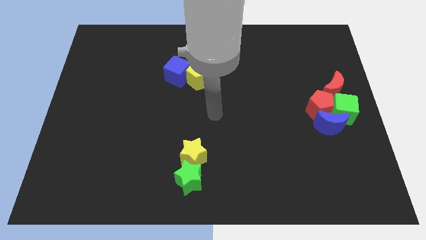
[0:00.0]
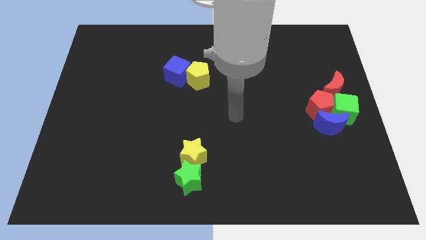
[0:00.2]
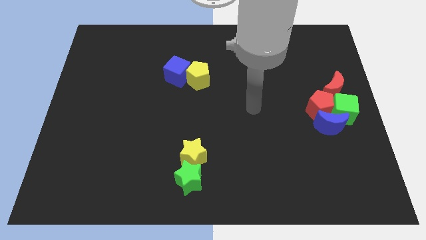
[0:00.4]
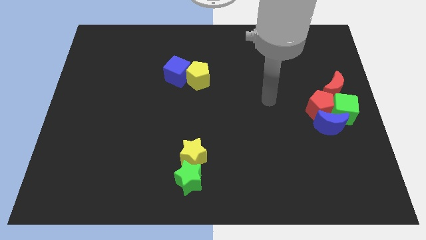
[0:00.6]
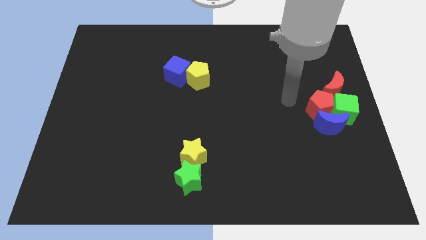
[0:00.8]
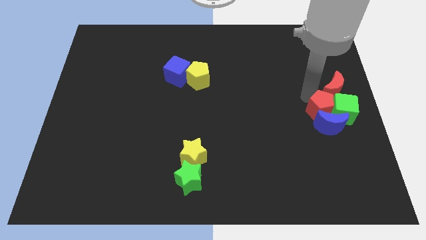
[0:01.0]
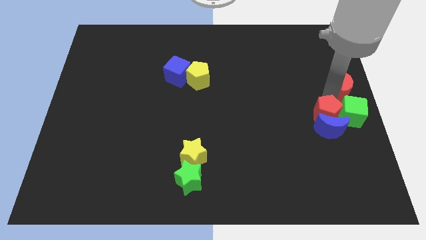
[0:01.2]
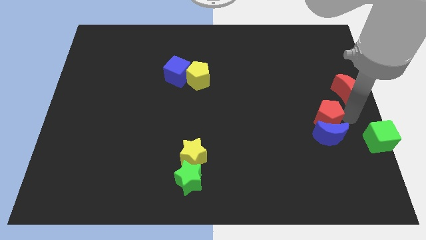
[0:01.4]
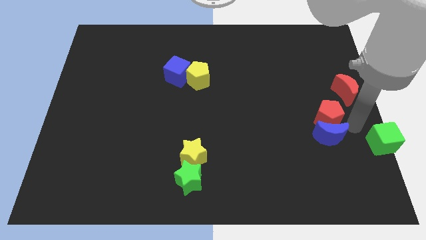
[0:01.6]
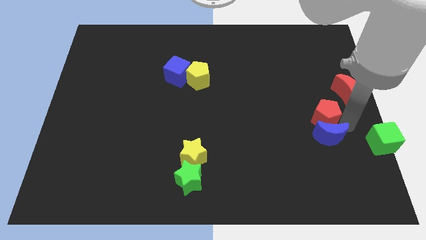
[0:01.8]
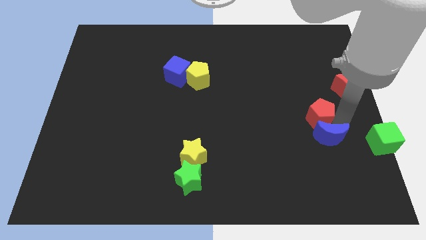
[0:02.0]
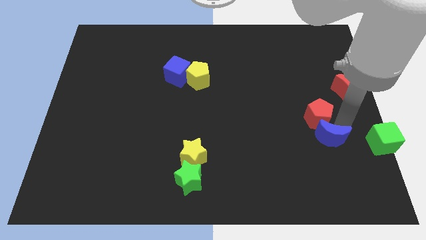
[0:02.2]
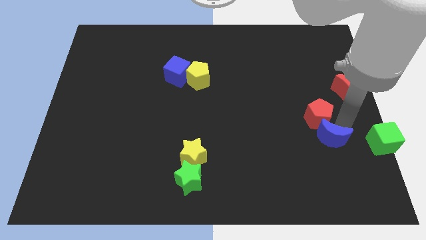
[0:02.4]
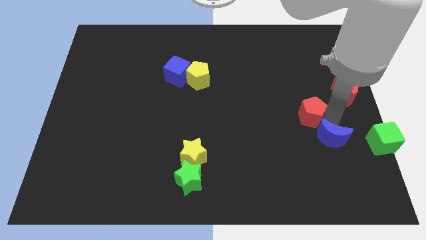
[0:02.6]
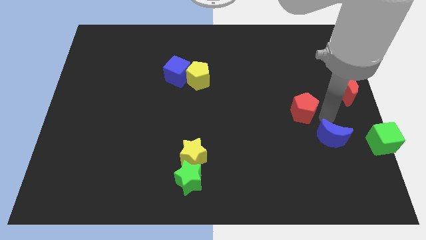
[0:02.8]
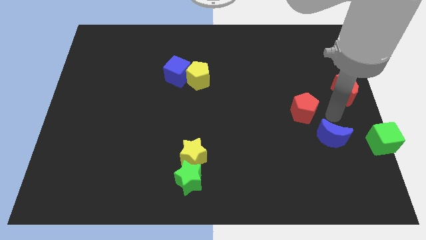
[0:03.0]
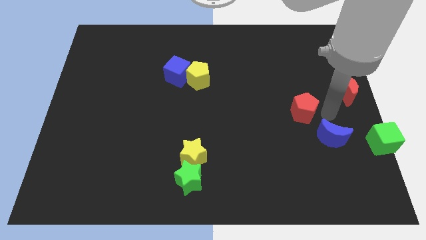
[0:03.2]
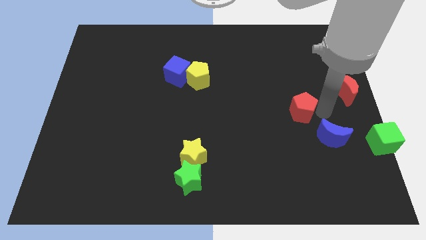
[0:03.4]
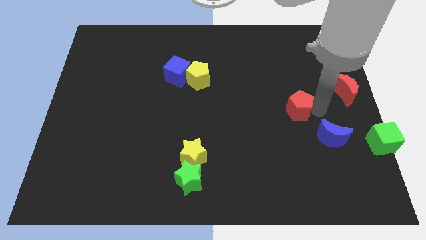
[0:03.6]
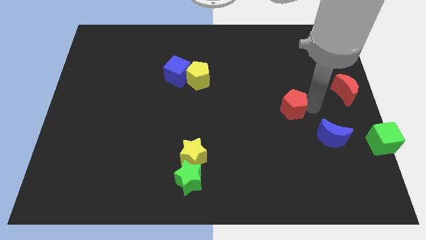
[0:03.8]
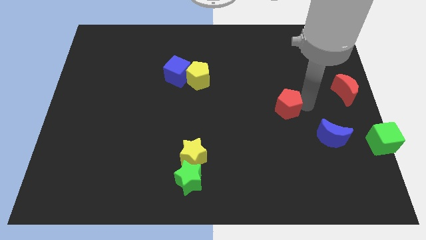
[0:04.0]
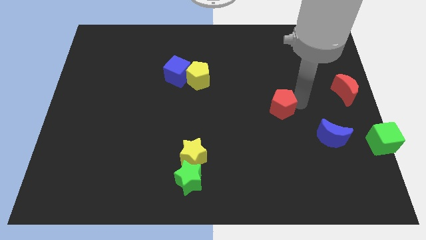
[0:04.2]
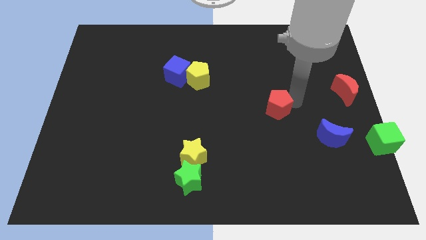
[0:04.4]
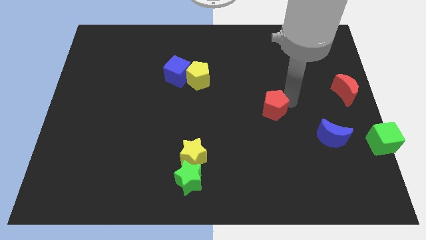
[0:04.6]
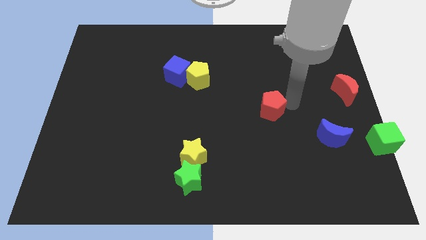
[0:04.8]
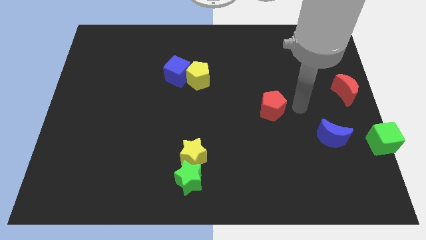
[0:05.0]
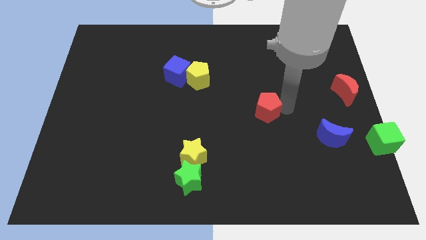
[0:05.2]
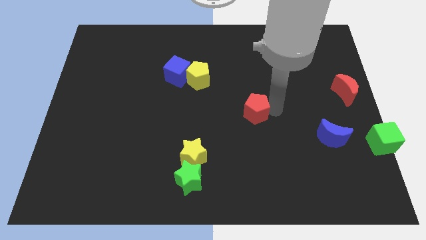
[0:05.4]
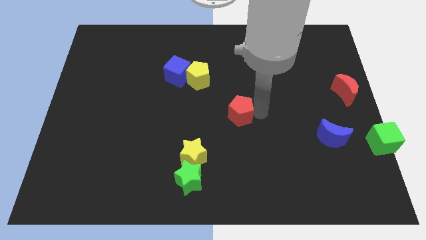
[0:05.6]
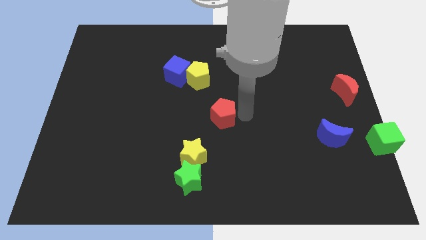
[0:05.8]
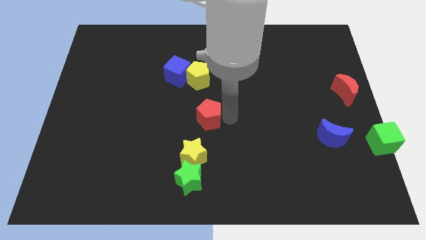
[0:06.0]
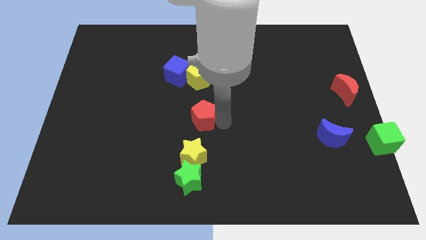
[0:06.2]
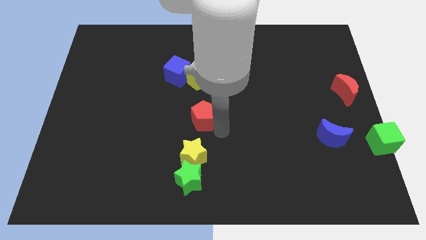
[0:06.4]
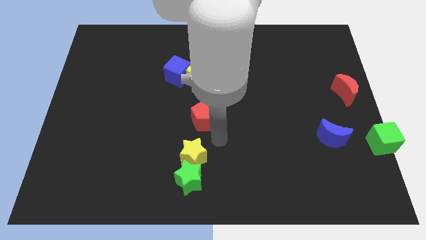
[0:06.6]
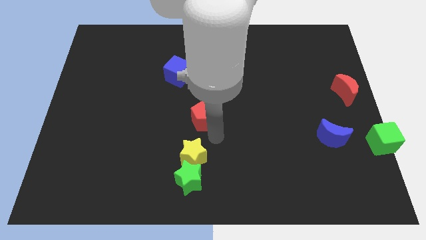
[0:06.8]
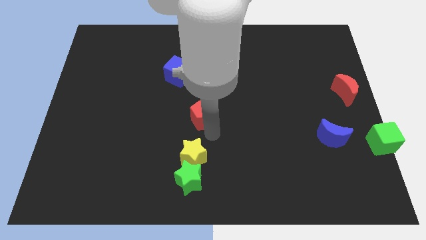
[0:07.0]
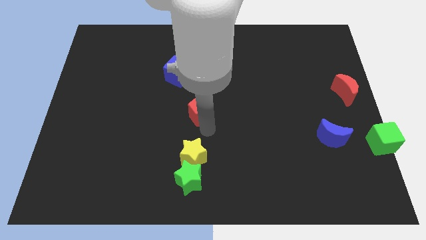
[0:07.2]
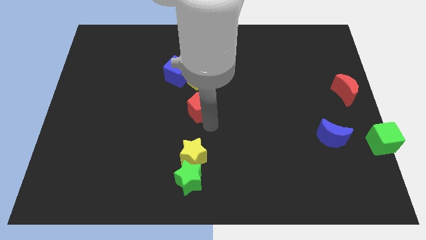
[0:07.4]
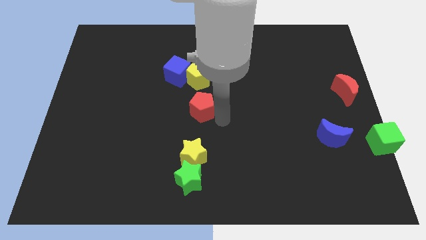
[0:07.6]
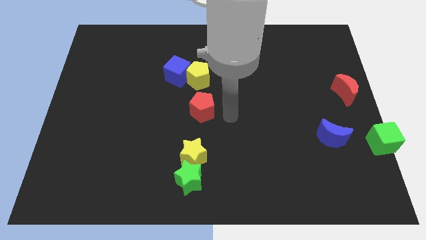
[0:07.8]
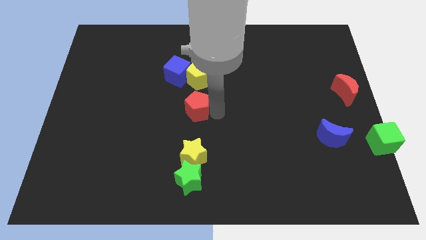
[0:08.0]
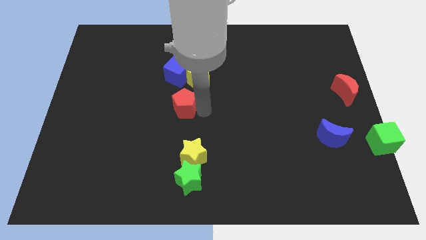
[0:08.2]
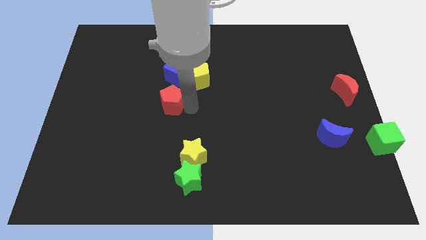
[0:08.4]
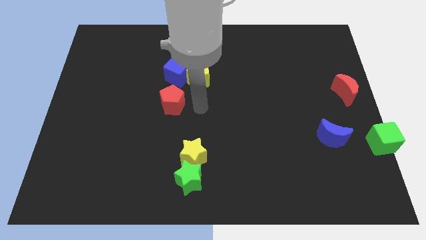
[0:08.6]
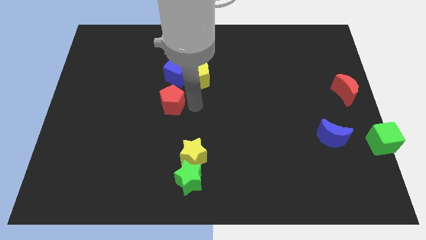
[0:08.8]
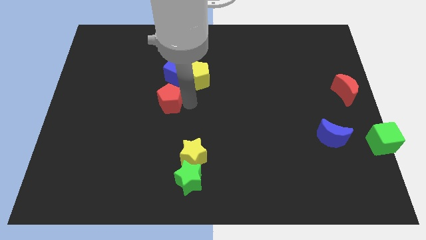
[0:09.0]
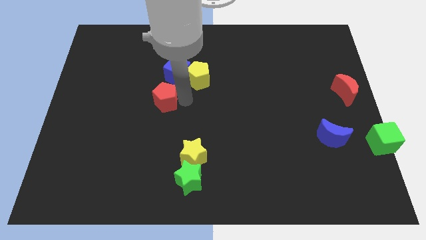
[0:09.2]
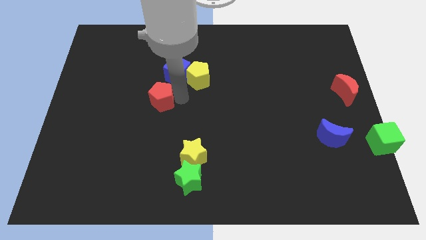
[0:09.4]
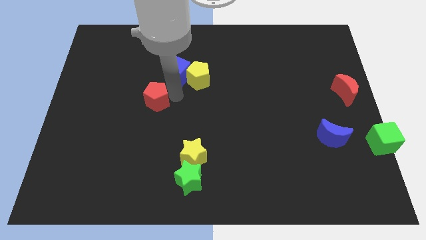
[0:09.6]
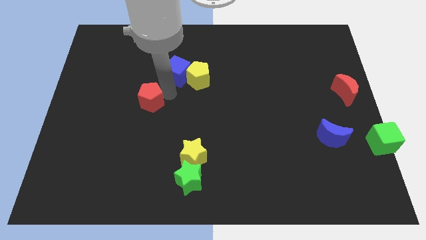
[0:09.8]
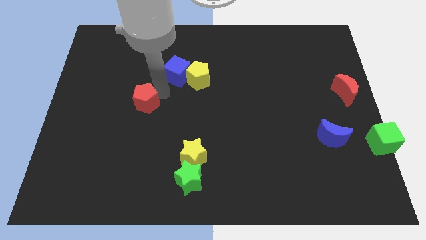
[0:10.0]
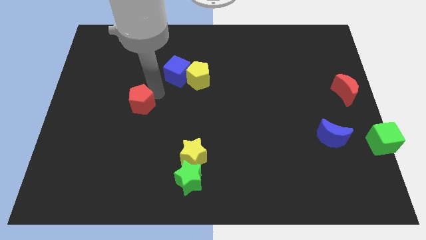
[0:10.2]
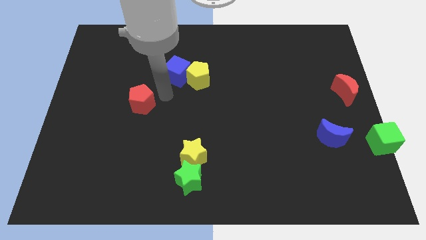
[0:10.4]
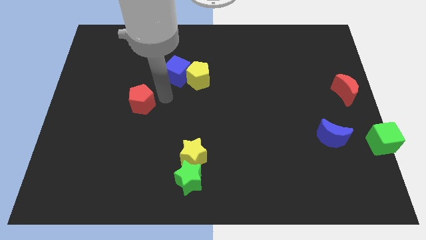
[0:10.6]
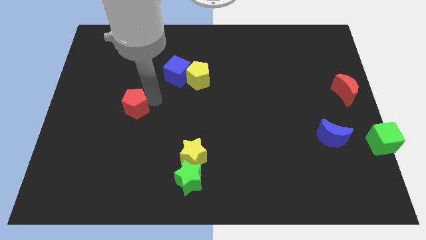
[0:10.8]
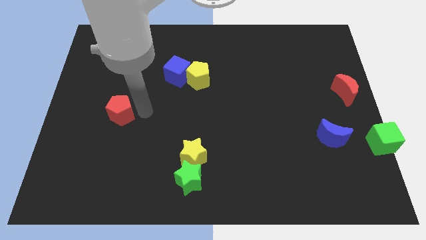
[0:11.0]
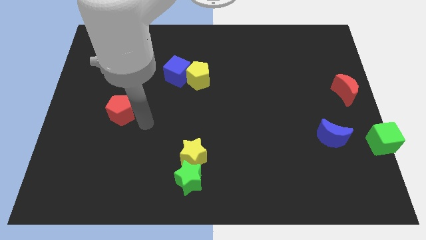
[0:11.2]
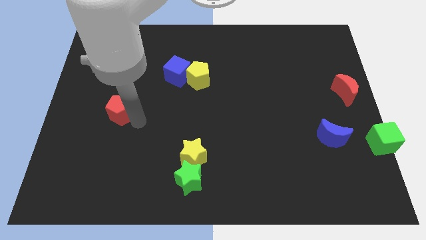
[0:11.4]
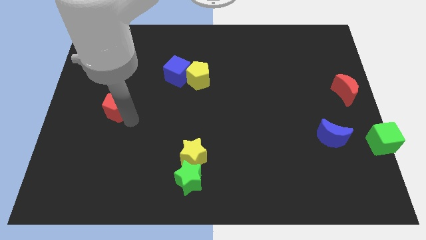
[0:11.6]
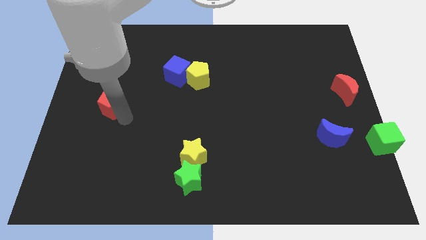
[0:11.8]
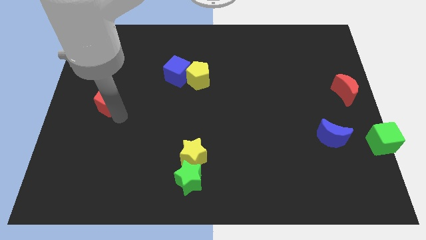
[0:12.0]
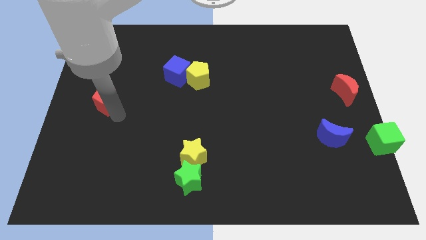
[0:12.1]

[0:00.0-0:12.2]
push the red pentagon to the left side of the board

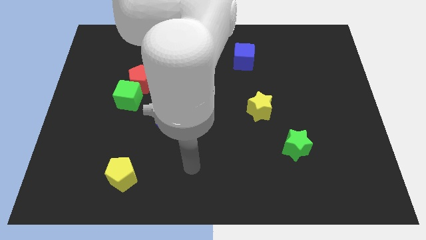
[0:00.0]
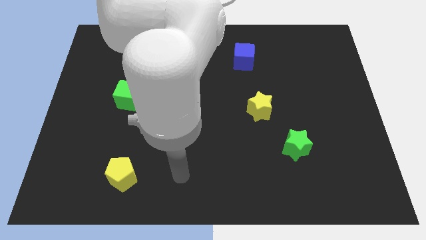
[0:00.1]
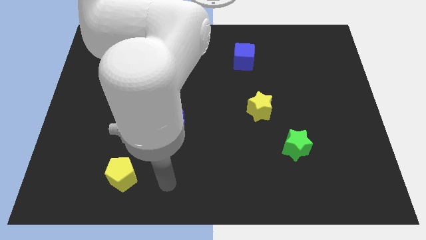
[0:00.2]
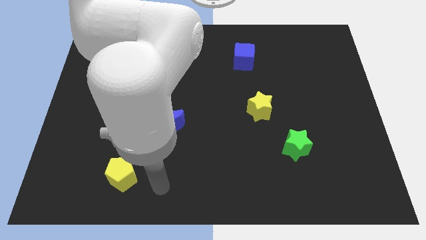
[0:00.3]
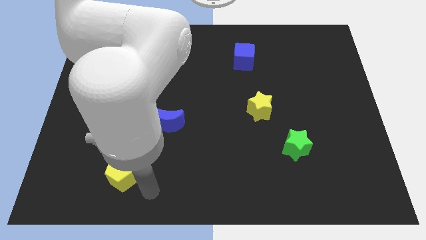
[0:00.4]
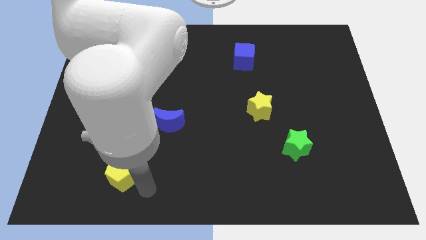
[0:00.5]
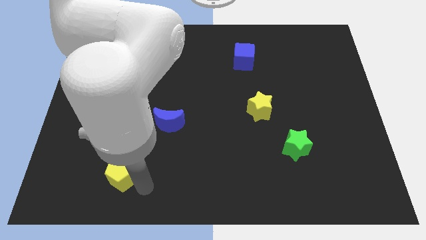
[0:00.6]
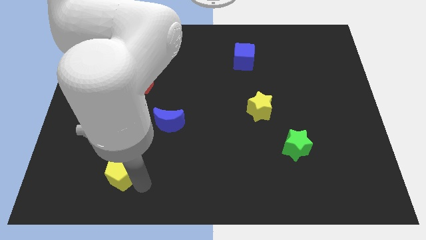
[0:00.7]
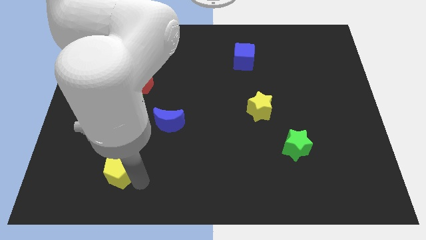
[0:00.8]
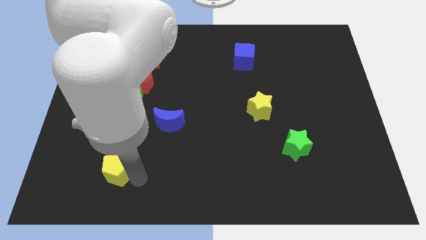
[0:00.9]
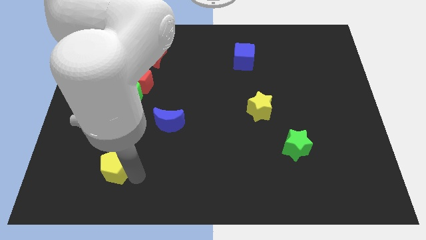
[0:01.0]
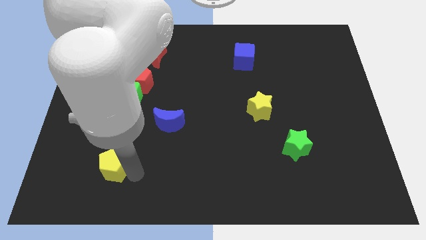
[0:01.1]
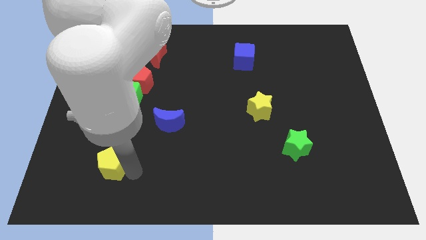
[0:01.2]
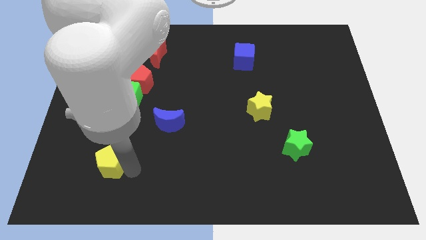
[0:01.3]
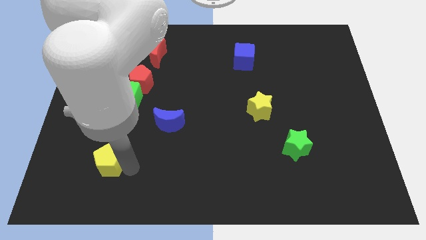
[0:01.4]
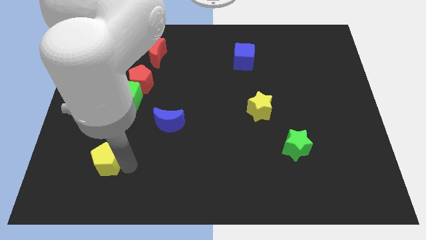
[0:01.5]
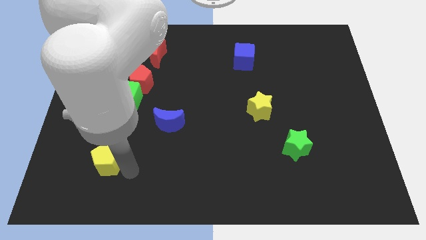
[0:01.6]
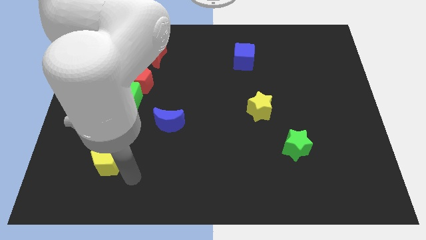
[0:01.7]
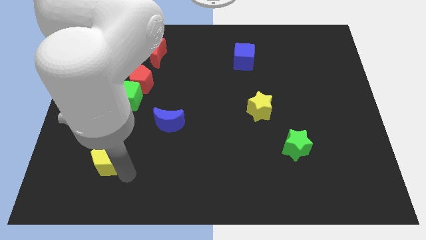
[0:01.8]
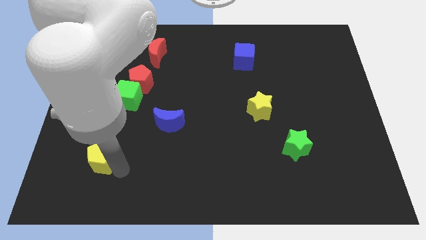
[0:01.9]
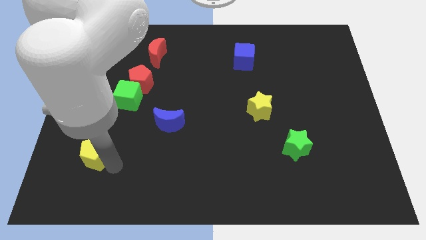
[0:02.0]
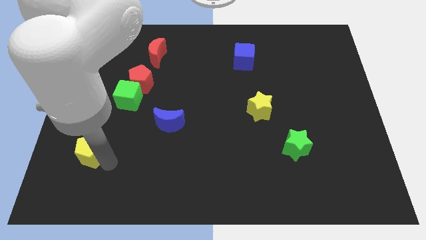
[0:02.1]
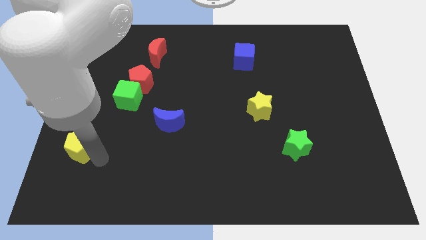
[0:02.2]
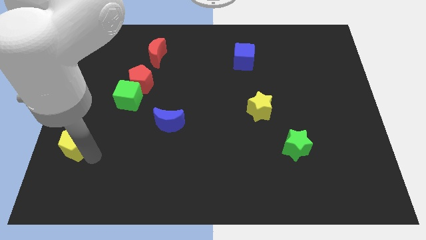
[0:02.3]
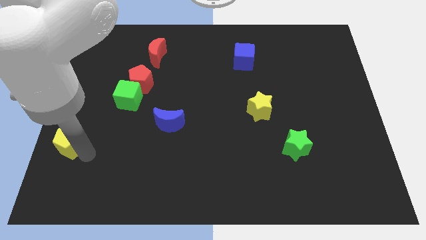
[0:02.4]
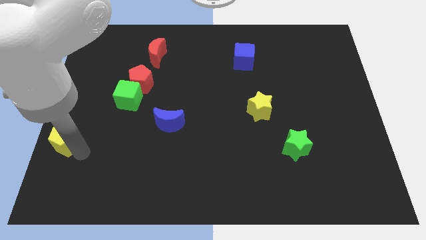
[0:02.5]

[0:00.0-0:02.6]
push the yellow pentagon to the left side
